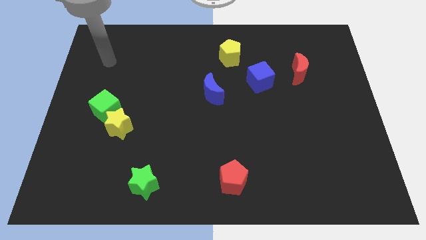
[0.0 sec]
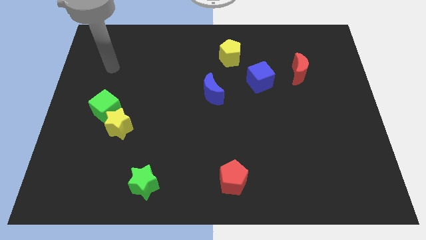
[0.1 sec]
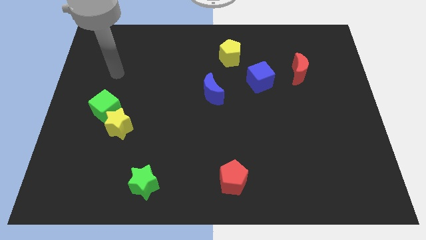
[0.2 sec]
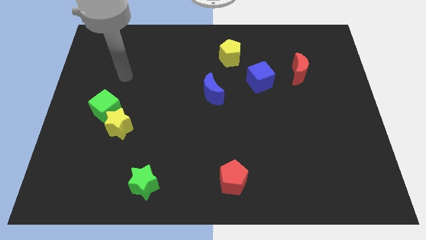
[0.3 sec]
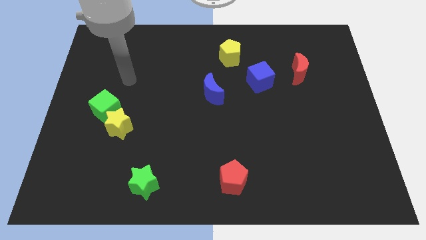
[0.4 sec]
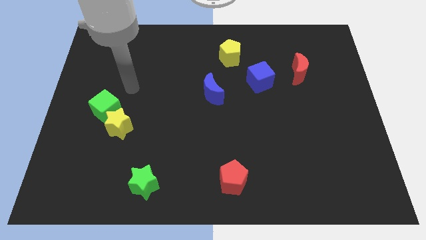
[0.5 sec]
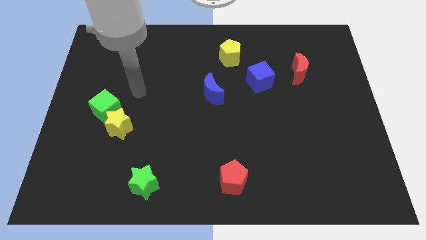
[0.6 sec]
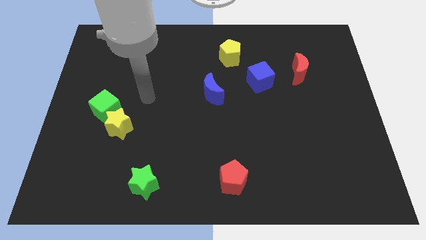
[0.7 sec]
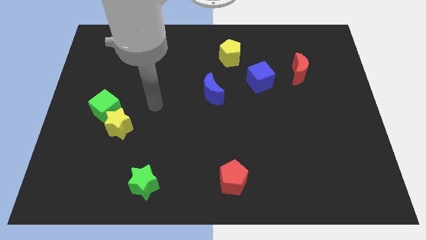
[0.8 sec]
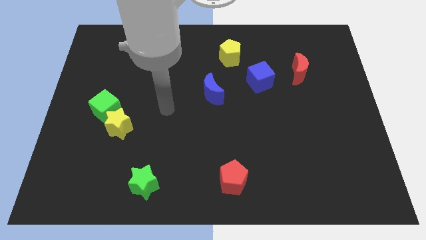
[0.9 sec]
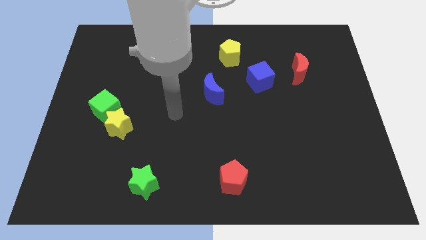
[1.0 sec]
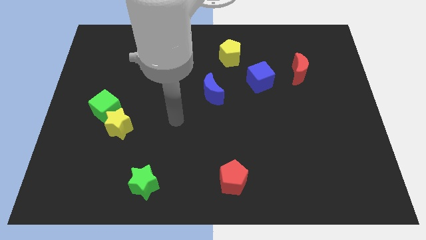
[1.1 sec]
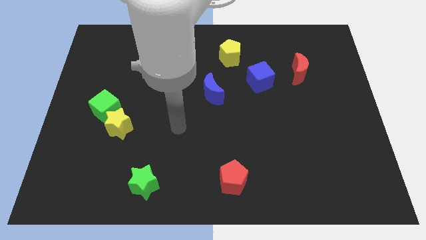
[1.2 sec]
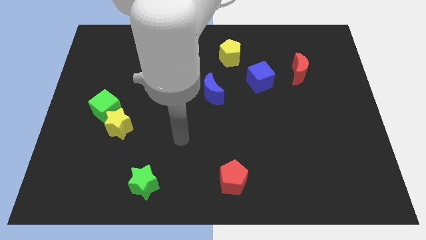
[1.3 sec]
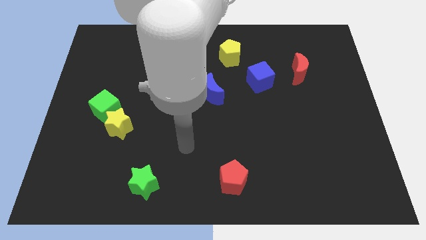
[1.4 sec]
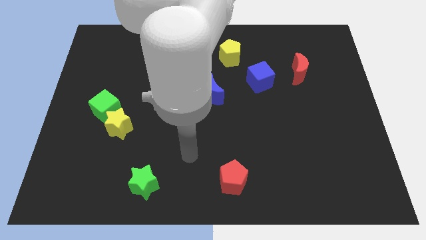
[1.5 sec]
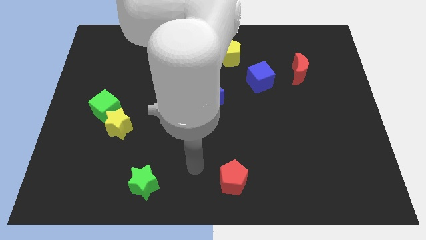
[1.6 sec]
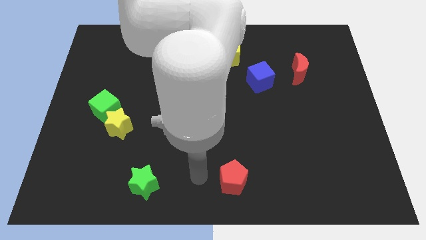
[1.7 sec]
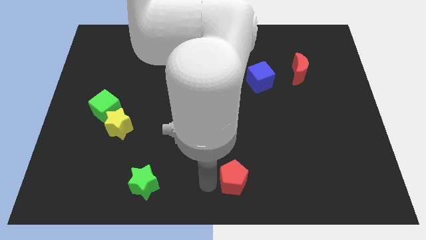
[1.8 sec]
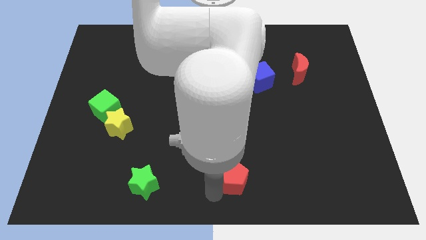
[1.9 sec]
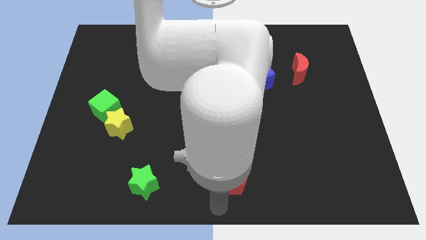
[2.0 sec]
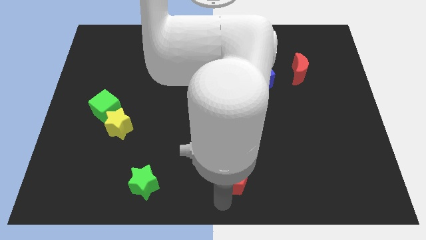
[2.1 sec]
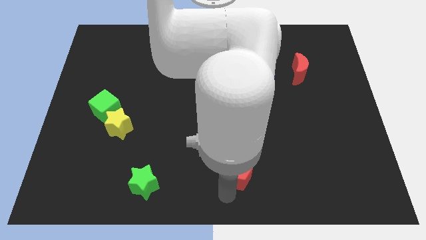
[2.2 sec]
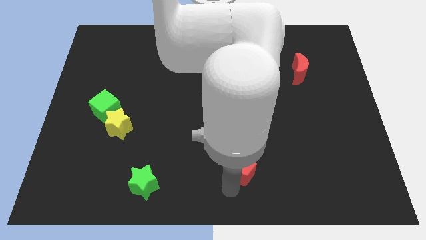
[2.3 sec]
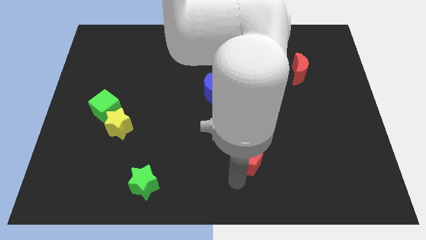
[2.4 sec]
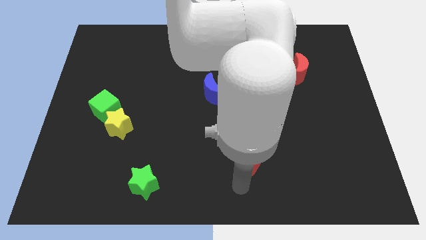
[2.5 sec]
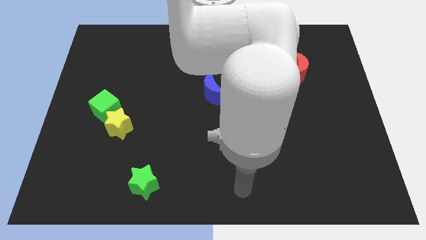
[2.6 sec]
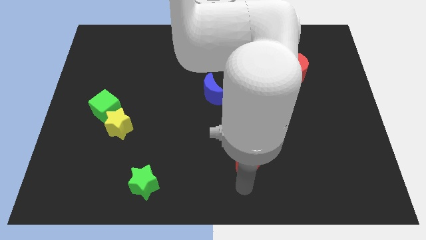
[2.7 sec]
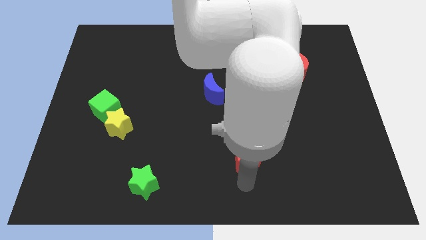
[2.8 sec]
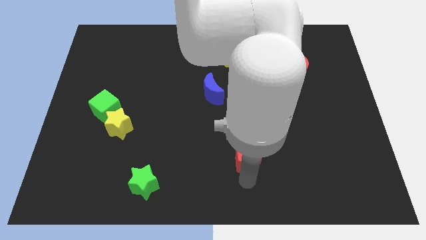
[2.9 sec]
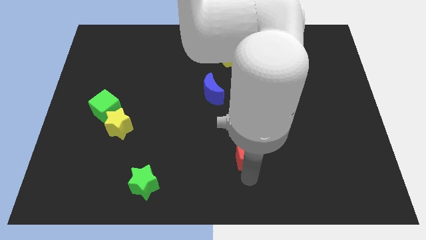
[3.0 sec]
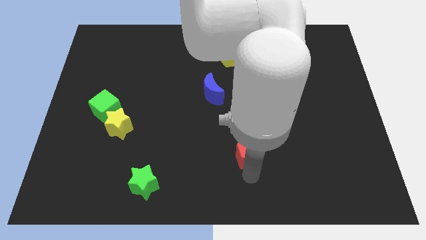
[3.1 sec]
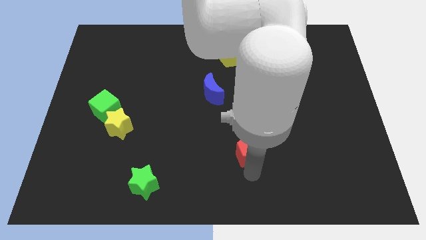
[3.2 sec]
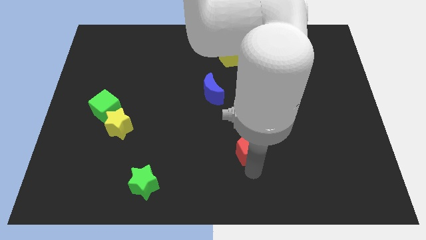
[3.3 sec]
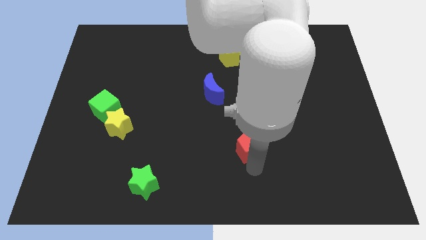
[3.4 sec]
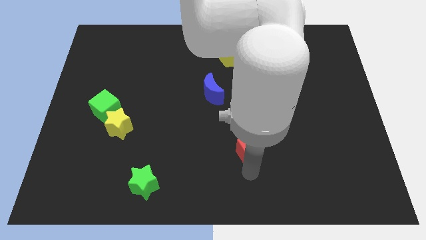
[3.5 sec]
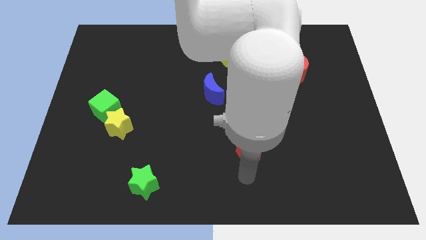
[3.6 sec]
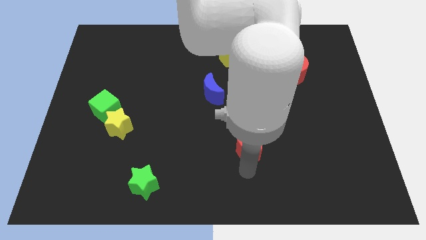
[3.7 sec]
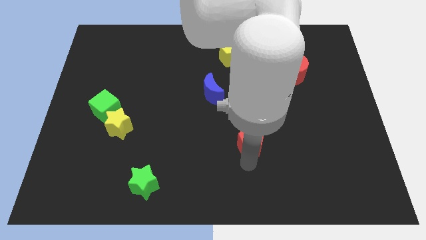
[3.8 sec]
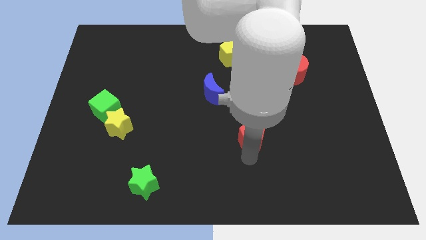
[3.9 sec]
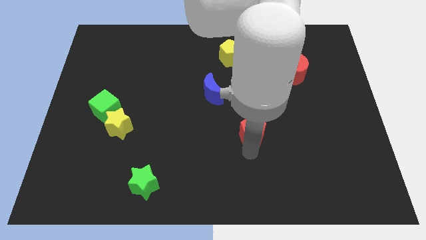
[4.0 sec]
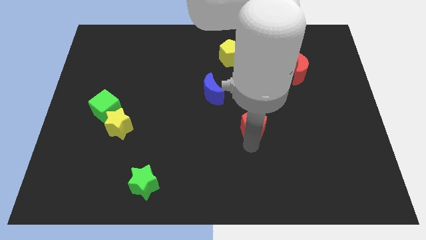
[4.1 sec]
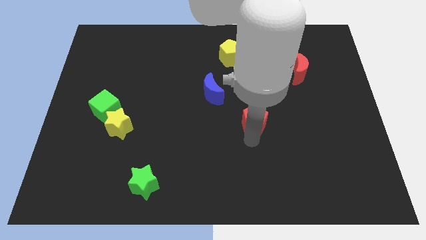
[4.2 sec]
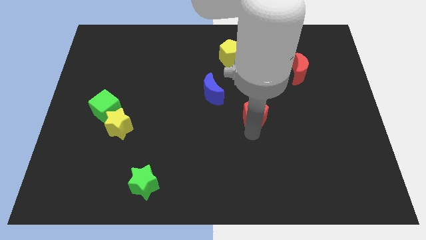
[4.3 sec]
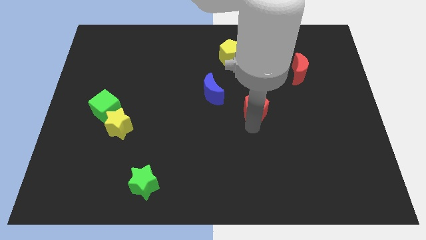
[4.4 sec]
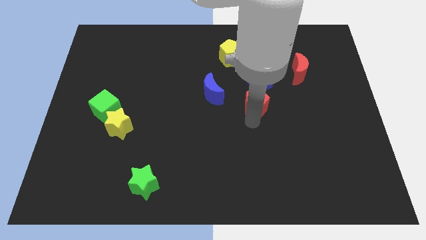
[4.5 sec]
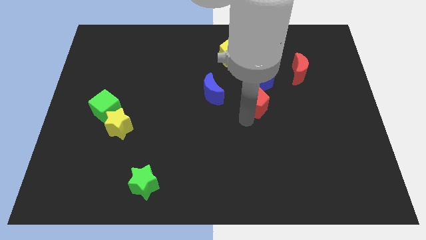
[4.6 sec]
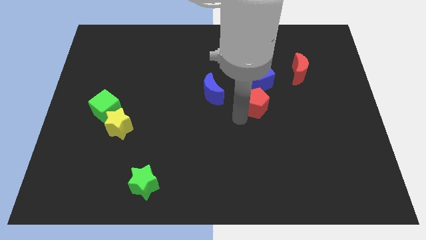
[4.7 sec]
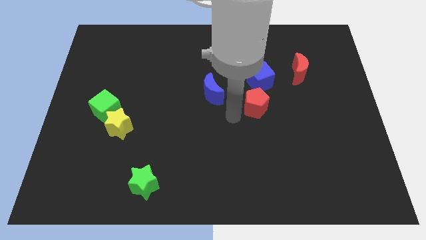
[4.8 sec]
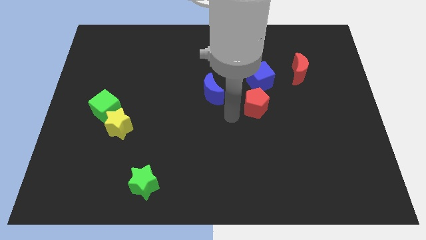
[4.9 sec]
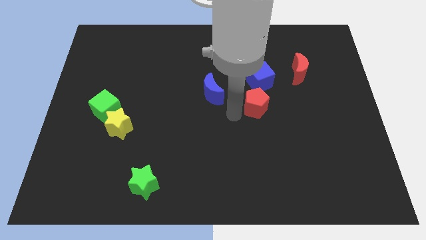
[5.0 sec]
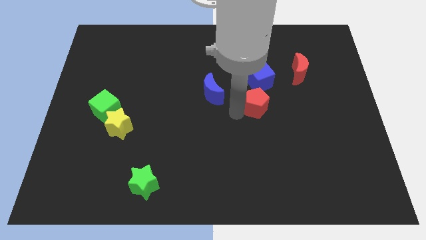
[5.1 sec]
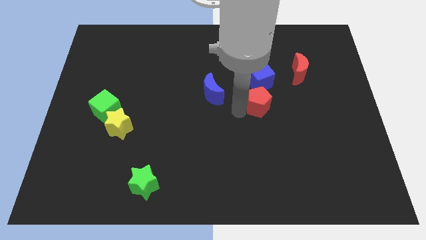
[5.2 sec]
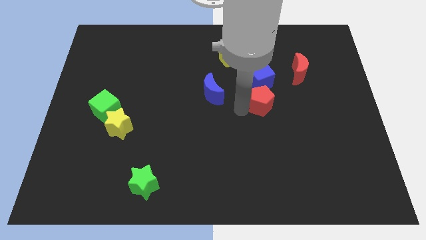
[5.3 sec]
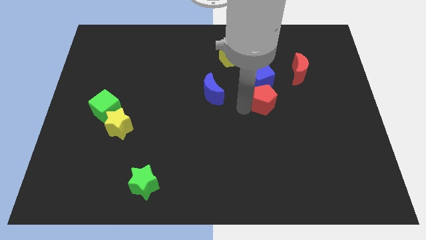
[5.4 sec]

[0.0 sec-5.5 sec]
put the red pentagon to the bottom right side of the blue cube

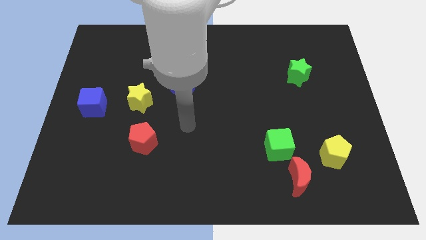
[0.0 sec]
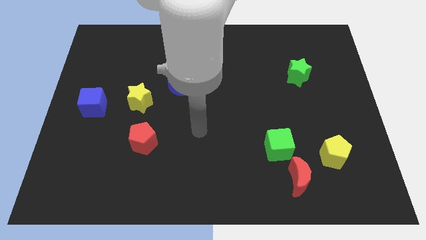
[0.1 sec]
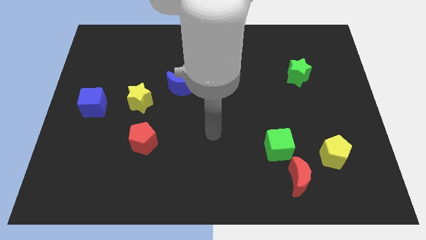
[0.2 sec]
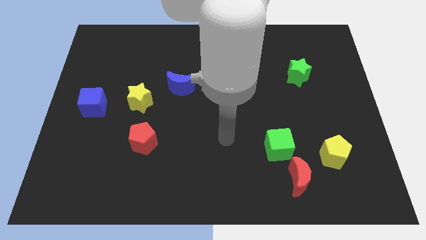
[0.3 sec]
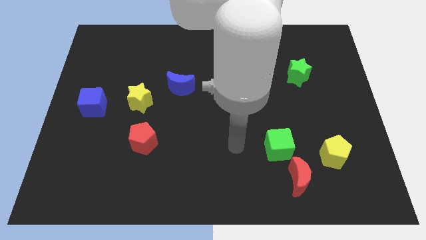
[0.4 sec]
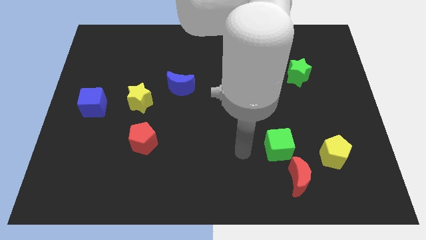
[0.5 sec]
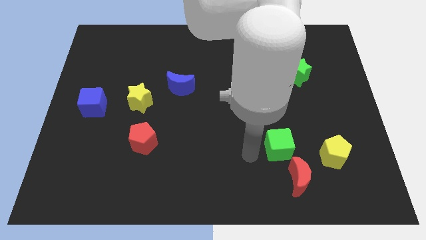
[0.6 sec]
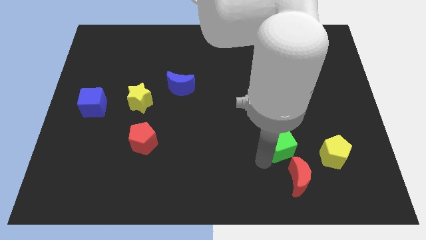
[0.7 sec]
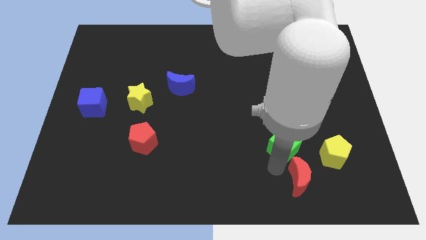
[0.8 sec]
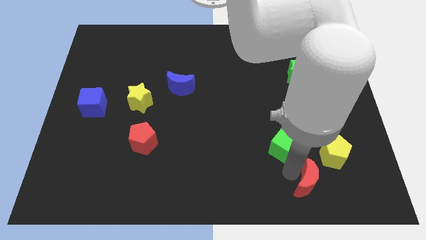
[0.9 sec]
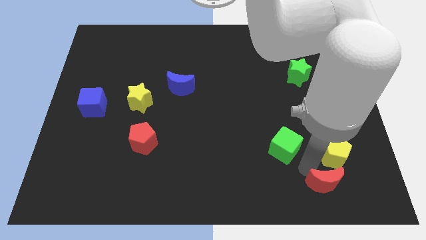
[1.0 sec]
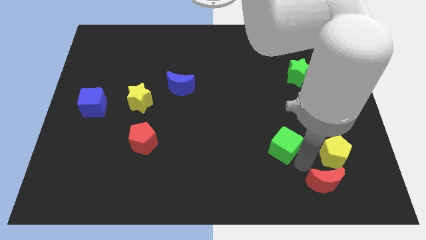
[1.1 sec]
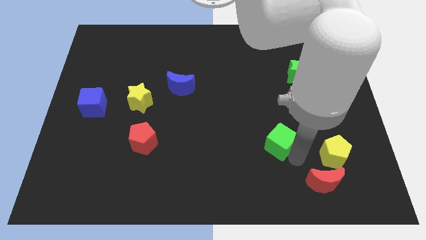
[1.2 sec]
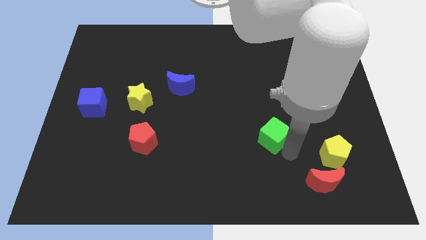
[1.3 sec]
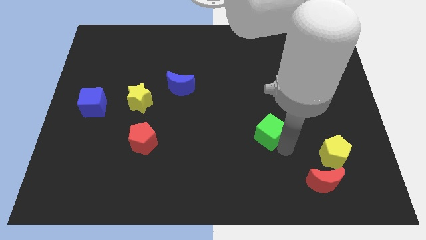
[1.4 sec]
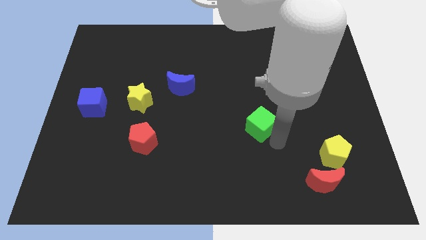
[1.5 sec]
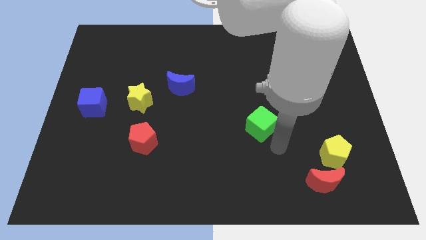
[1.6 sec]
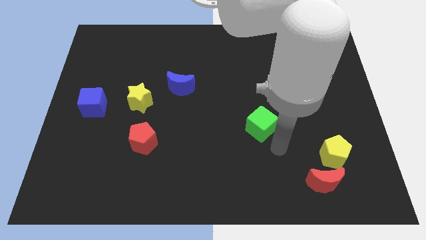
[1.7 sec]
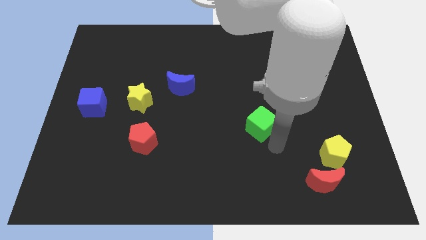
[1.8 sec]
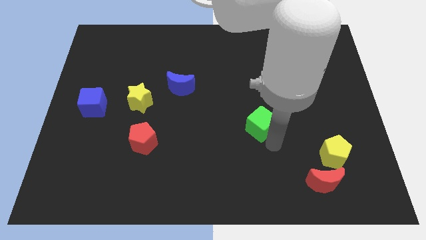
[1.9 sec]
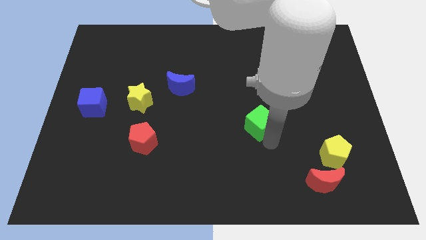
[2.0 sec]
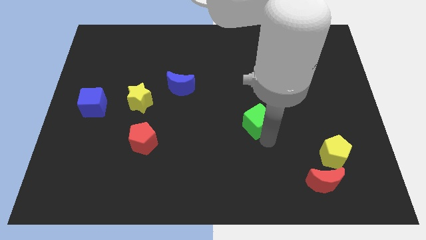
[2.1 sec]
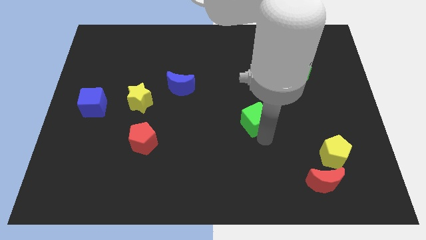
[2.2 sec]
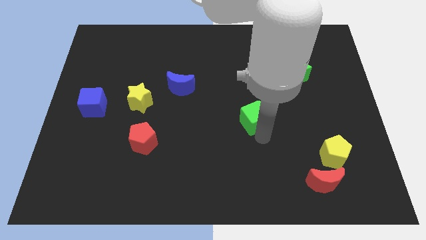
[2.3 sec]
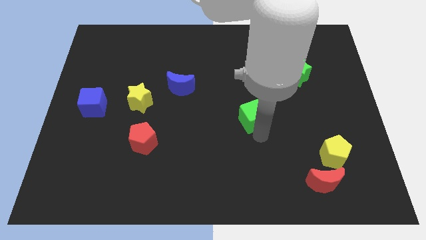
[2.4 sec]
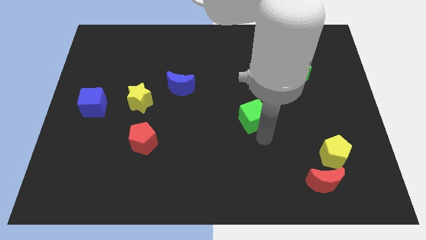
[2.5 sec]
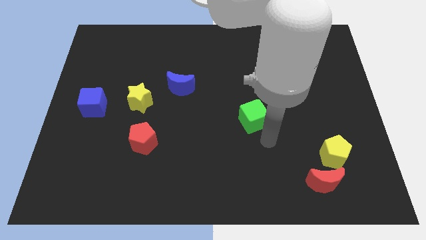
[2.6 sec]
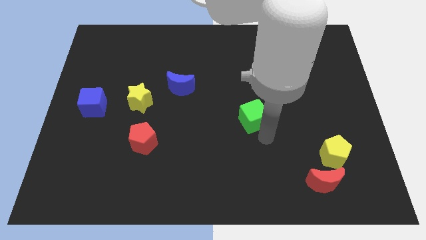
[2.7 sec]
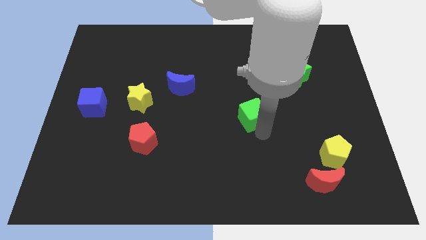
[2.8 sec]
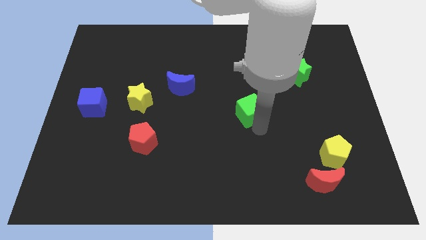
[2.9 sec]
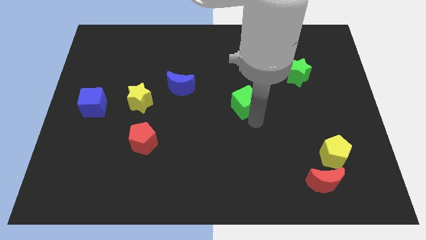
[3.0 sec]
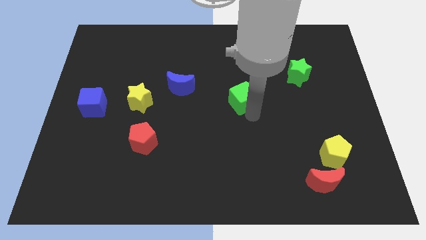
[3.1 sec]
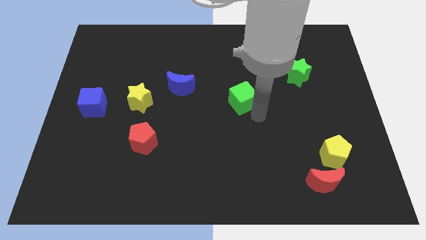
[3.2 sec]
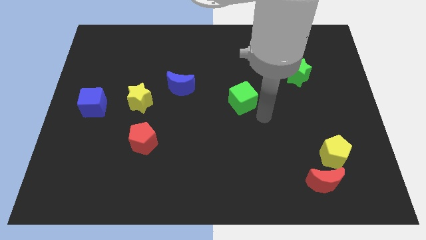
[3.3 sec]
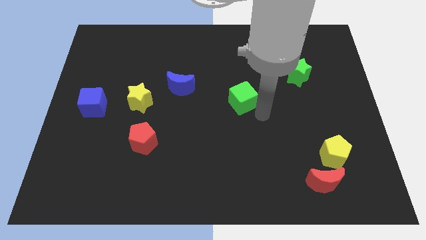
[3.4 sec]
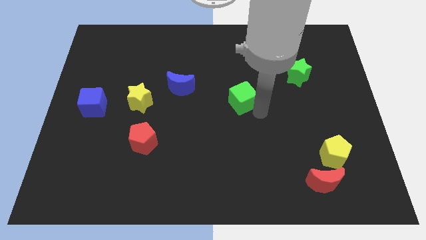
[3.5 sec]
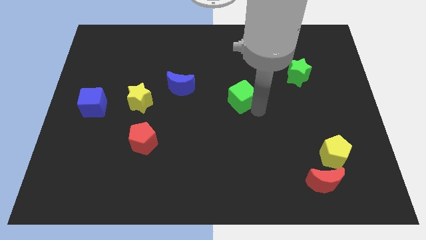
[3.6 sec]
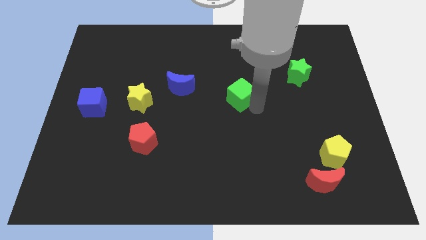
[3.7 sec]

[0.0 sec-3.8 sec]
push the green cube to the right side of the blue moon
